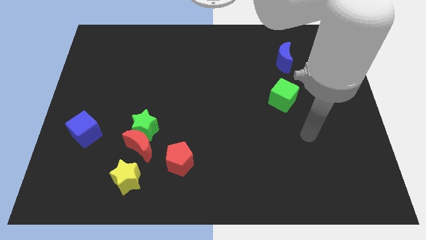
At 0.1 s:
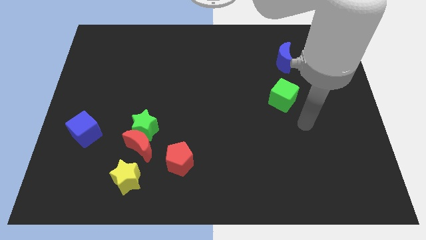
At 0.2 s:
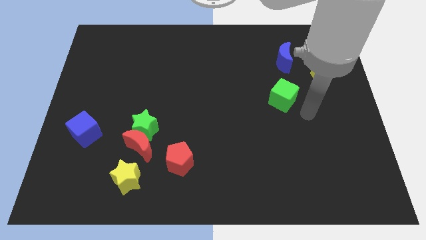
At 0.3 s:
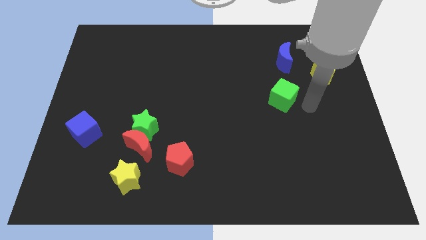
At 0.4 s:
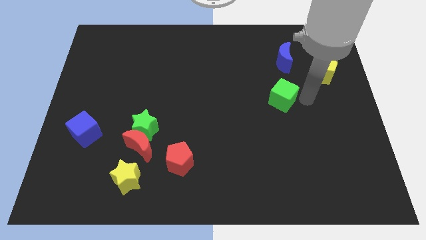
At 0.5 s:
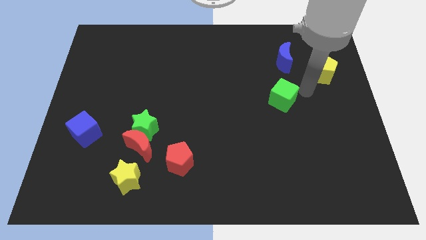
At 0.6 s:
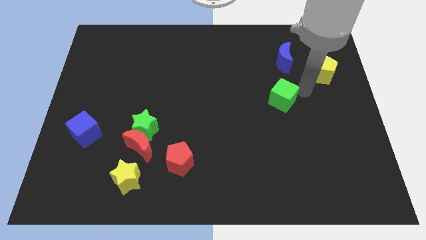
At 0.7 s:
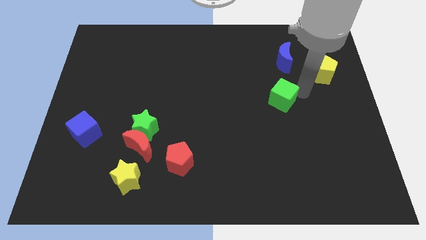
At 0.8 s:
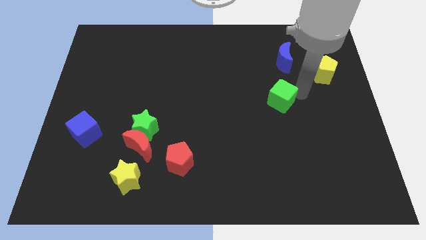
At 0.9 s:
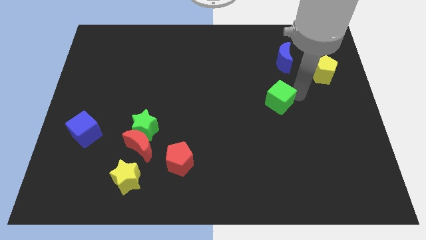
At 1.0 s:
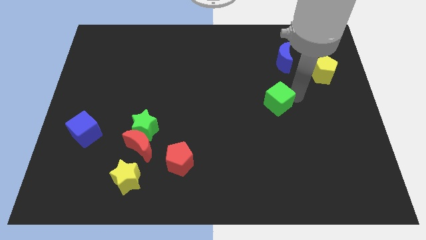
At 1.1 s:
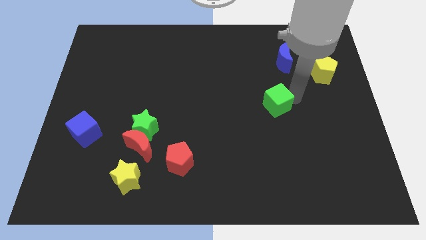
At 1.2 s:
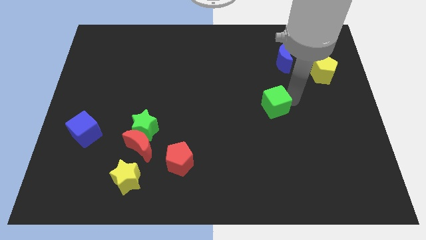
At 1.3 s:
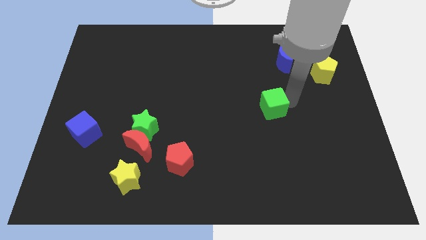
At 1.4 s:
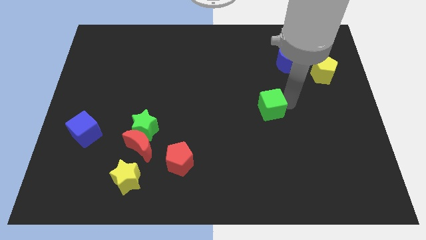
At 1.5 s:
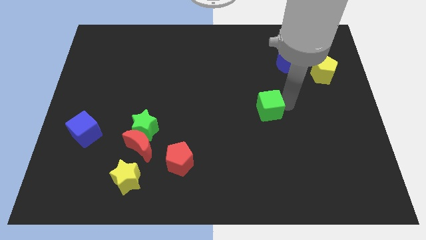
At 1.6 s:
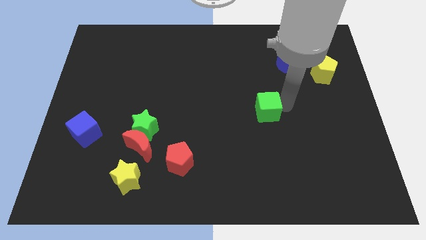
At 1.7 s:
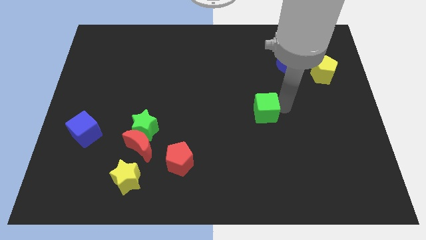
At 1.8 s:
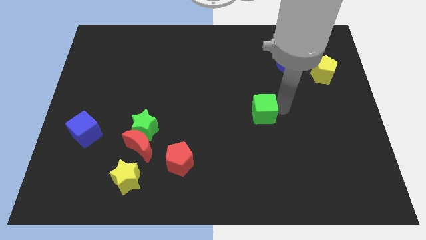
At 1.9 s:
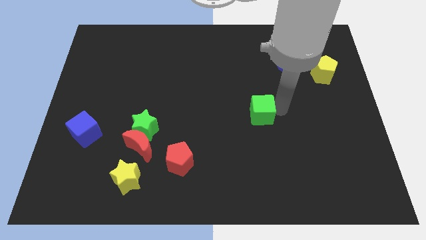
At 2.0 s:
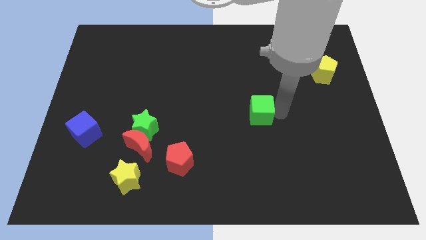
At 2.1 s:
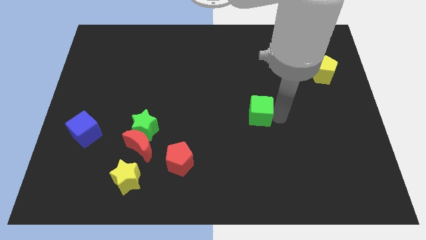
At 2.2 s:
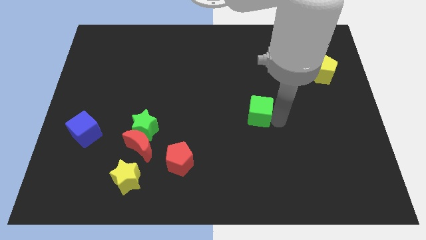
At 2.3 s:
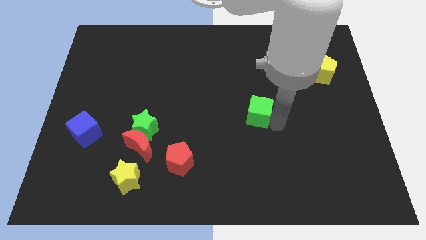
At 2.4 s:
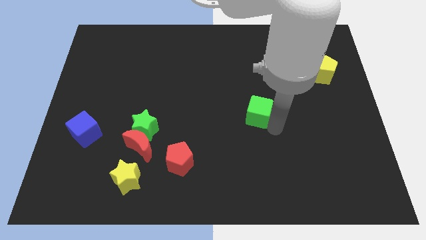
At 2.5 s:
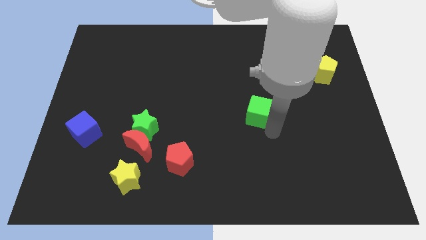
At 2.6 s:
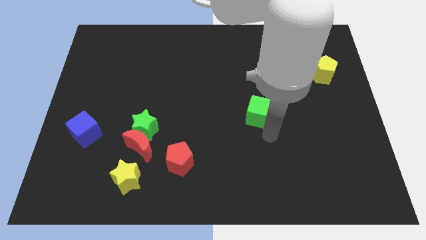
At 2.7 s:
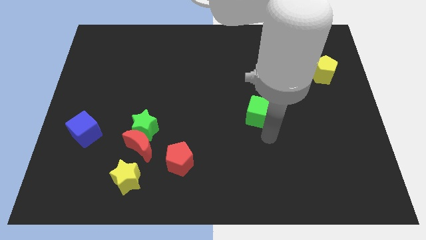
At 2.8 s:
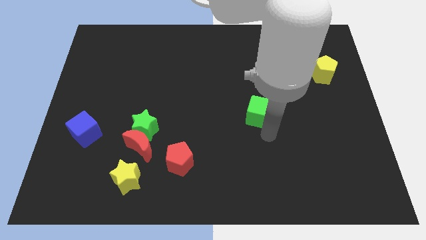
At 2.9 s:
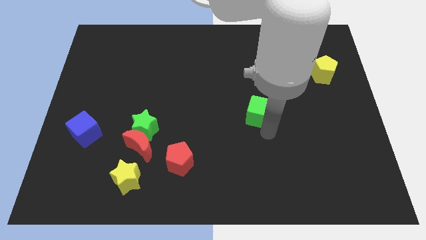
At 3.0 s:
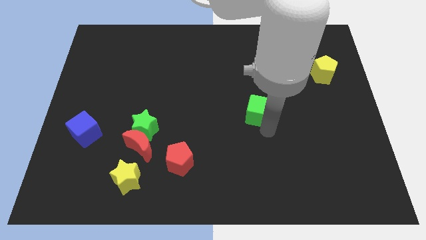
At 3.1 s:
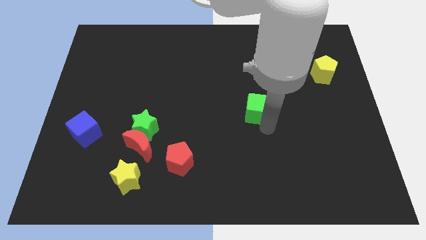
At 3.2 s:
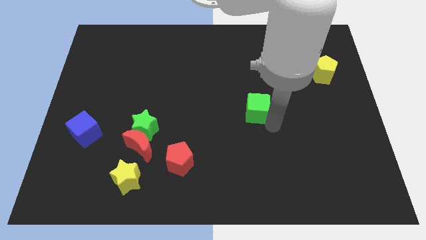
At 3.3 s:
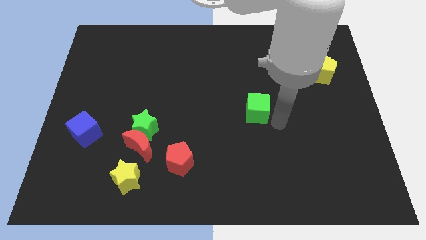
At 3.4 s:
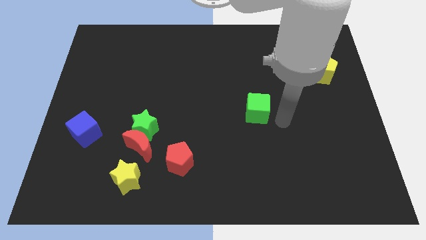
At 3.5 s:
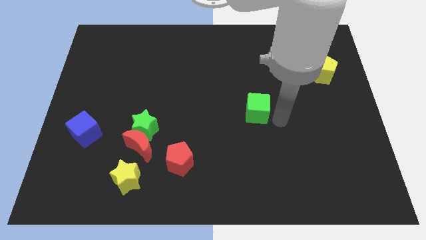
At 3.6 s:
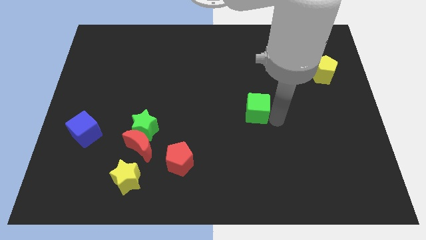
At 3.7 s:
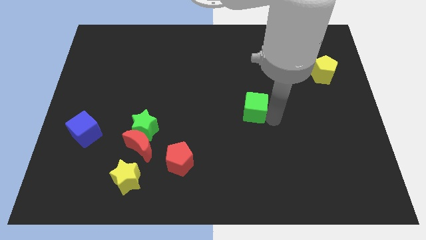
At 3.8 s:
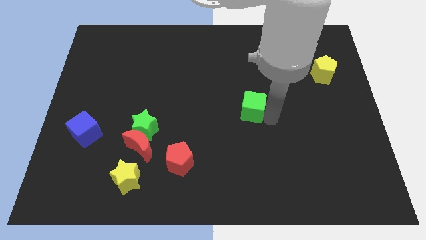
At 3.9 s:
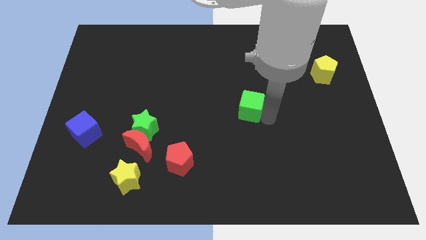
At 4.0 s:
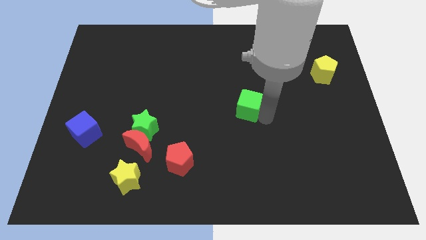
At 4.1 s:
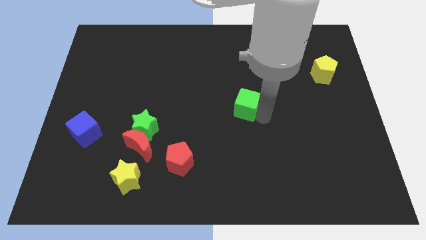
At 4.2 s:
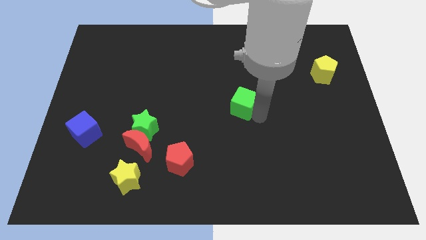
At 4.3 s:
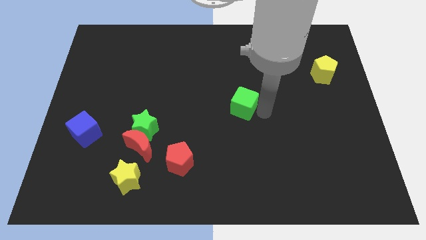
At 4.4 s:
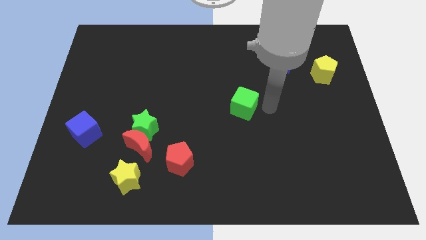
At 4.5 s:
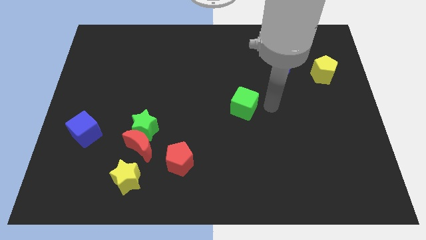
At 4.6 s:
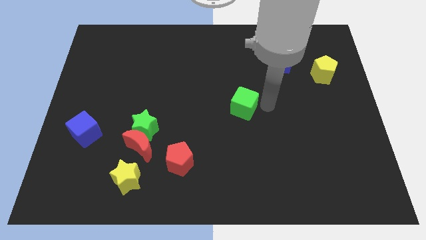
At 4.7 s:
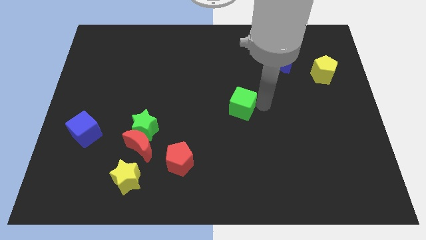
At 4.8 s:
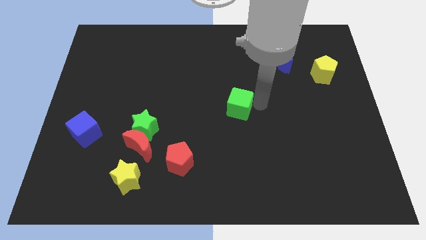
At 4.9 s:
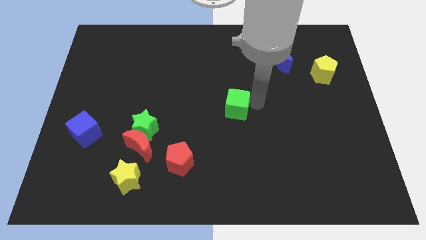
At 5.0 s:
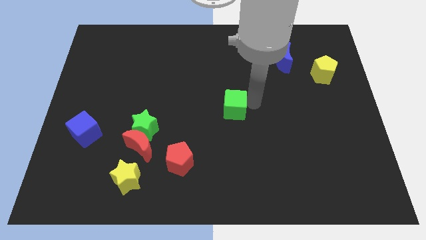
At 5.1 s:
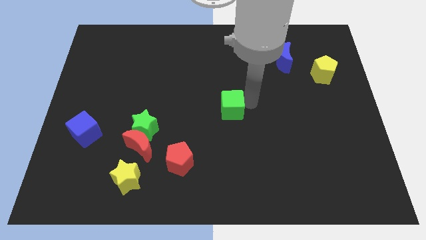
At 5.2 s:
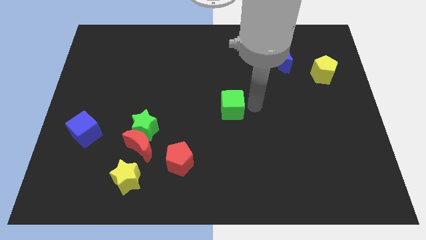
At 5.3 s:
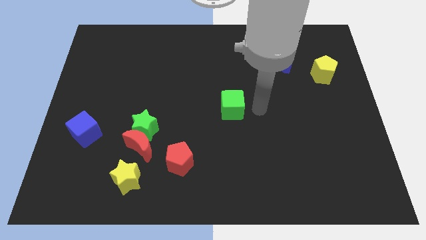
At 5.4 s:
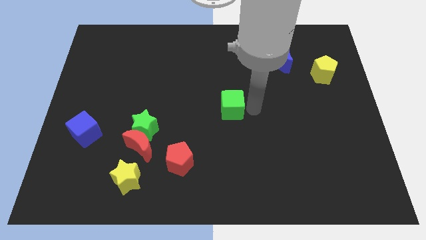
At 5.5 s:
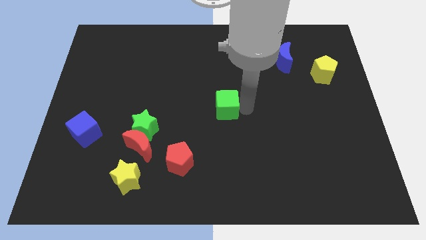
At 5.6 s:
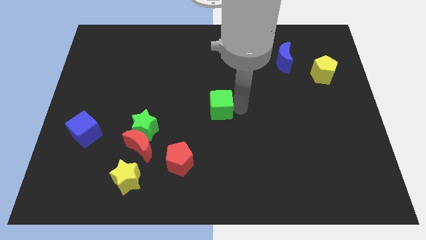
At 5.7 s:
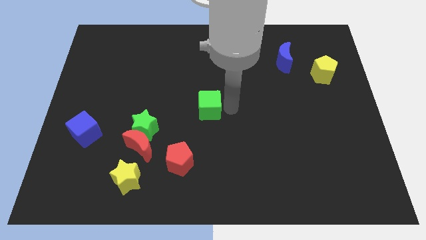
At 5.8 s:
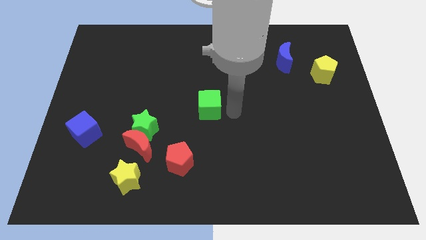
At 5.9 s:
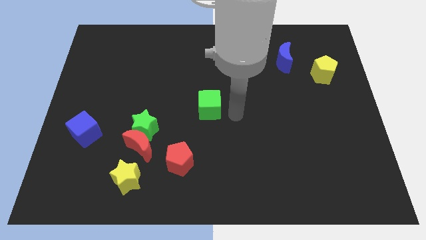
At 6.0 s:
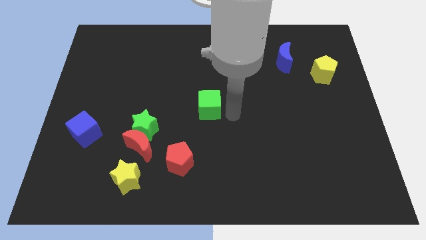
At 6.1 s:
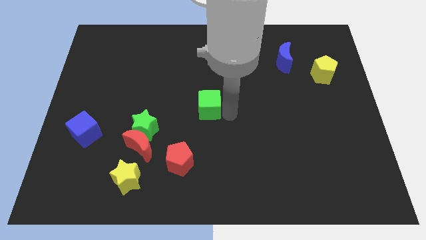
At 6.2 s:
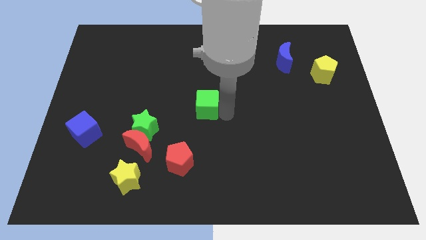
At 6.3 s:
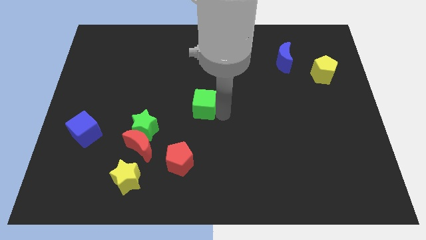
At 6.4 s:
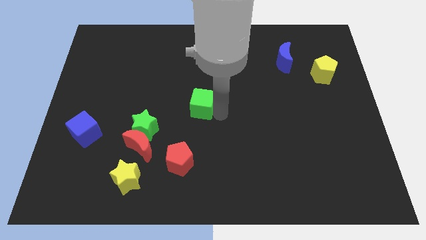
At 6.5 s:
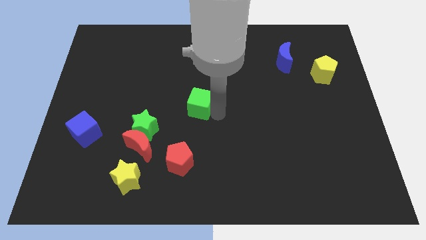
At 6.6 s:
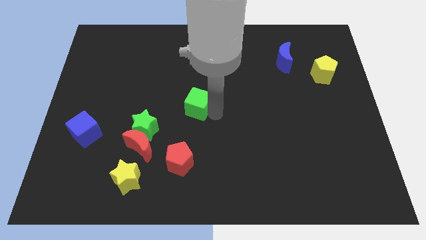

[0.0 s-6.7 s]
push the green cube to the left

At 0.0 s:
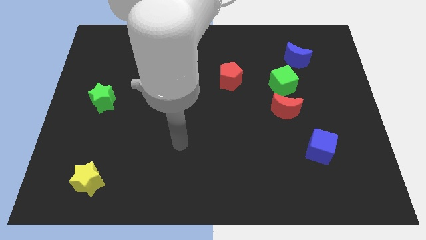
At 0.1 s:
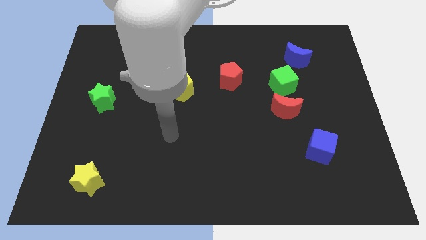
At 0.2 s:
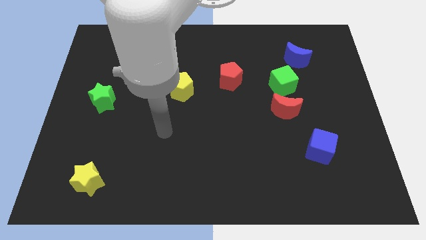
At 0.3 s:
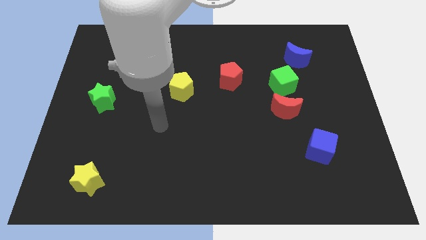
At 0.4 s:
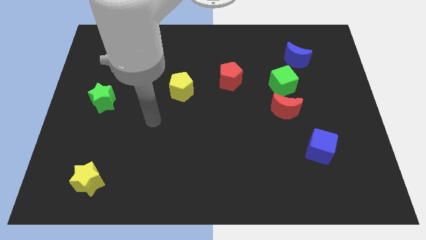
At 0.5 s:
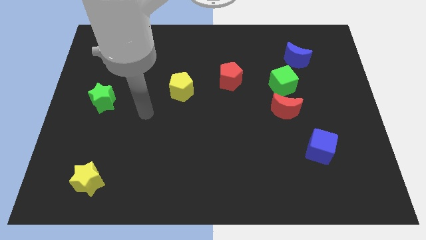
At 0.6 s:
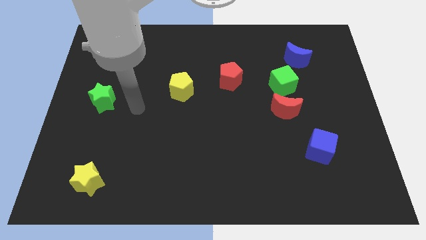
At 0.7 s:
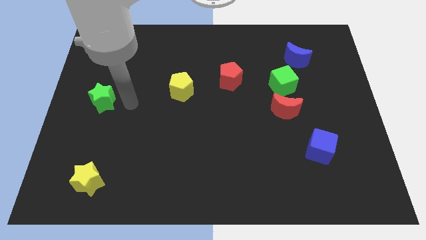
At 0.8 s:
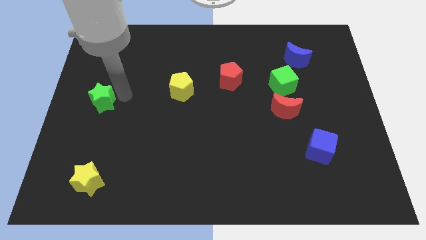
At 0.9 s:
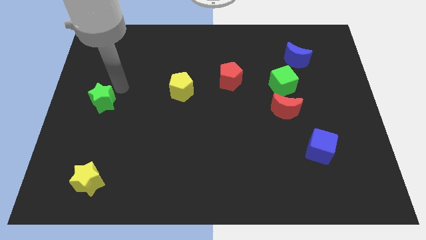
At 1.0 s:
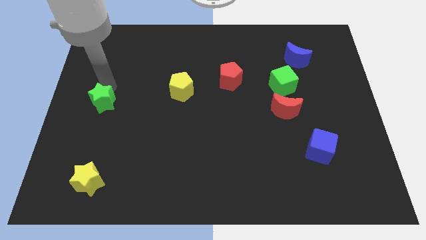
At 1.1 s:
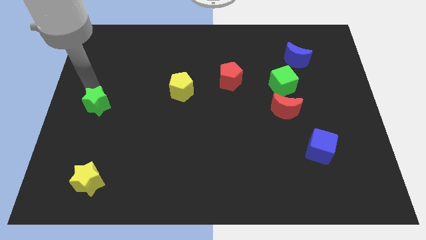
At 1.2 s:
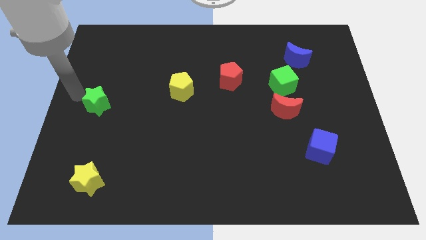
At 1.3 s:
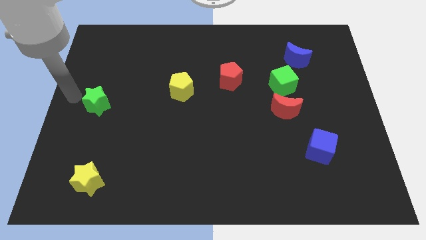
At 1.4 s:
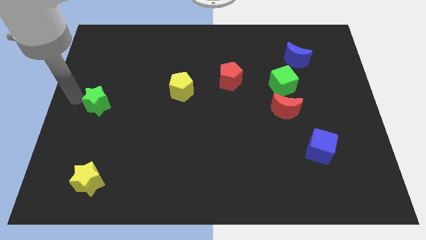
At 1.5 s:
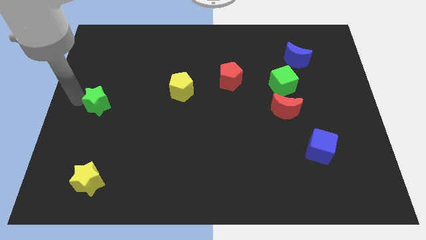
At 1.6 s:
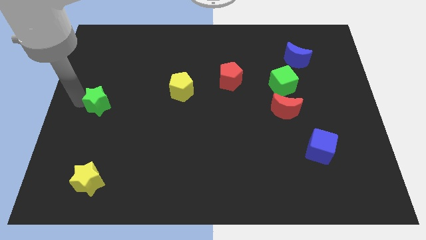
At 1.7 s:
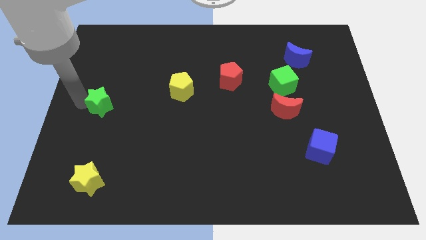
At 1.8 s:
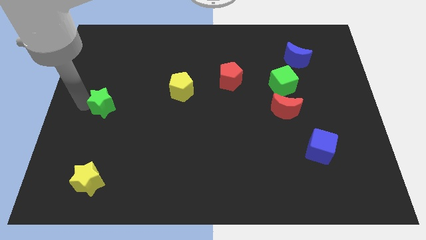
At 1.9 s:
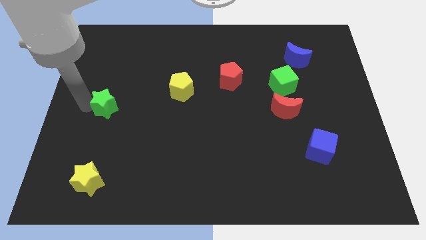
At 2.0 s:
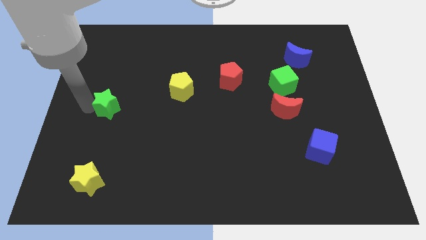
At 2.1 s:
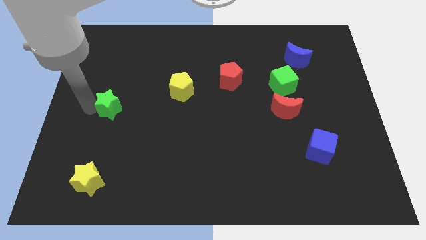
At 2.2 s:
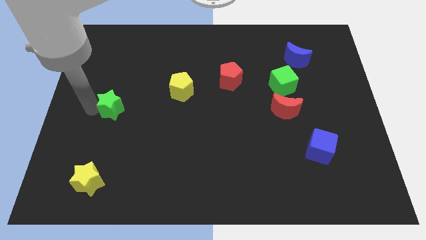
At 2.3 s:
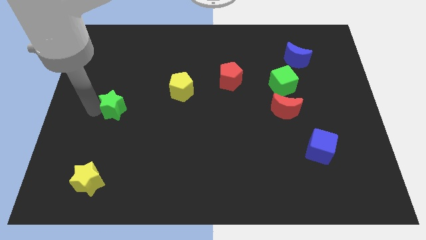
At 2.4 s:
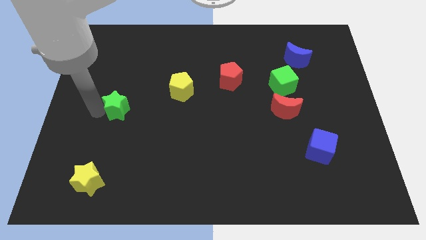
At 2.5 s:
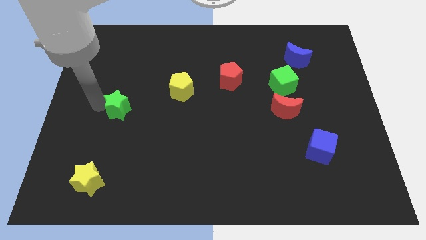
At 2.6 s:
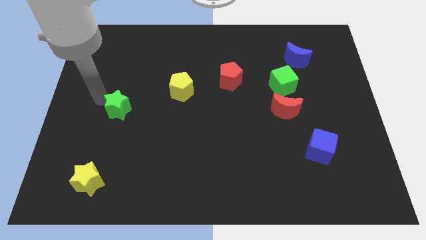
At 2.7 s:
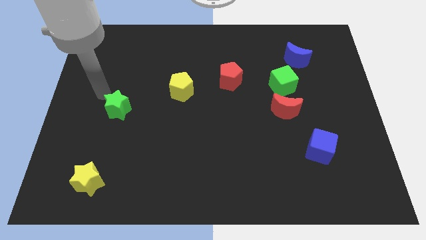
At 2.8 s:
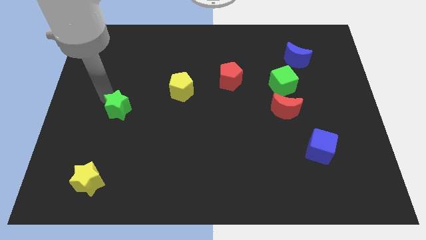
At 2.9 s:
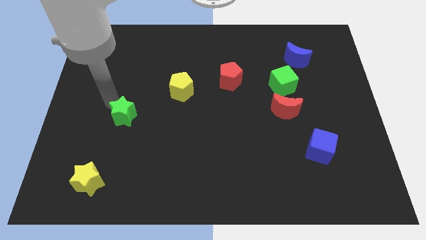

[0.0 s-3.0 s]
move the green star downwards and then to the right a little bit
